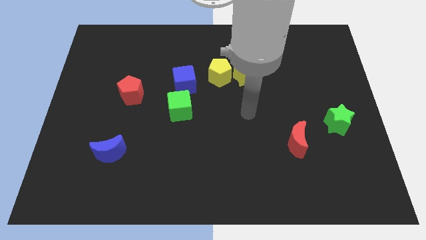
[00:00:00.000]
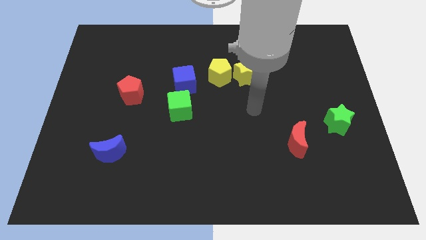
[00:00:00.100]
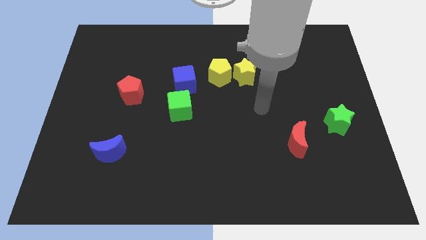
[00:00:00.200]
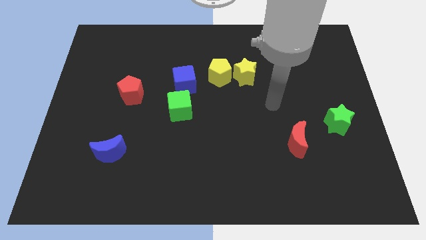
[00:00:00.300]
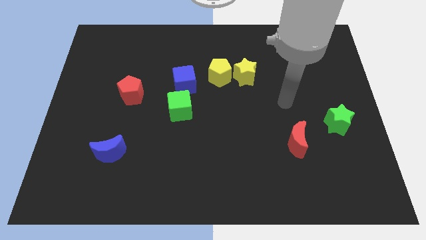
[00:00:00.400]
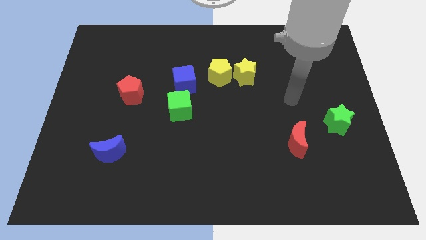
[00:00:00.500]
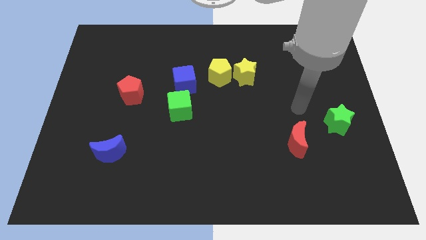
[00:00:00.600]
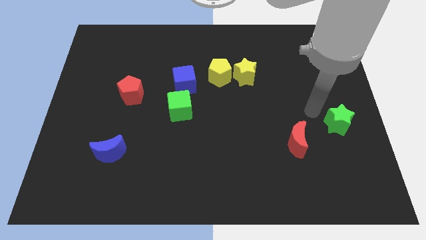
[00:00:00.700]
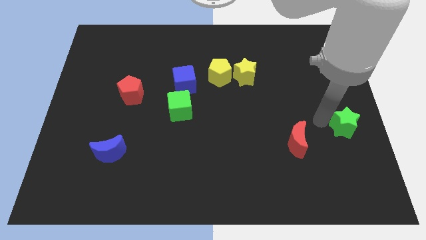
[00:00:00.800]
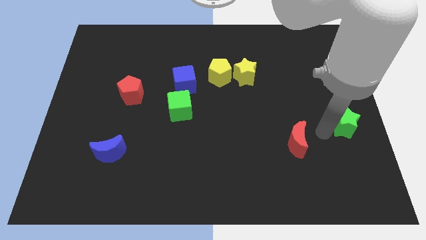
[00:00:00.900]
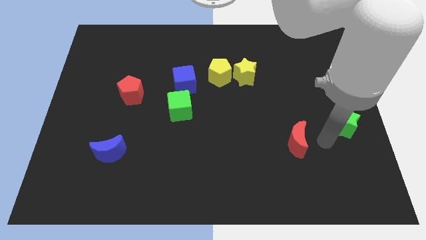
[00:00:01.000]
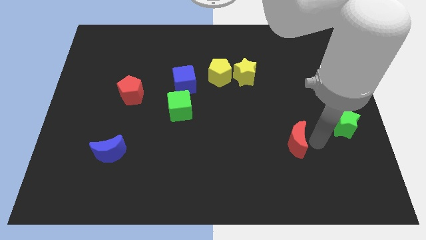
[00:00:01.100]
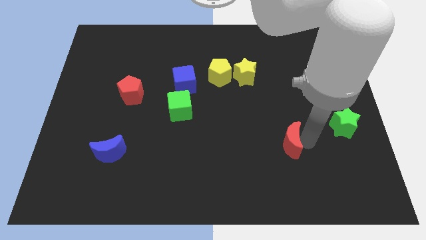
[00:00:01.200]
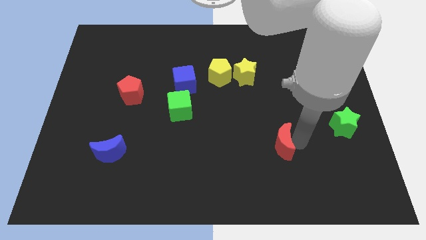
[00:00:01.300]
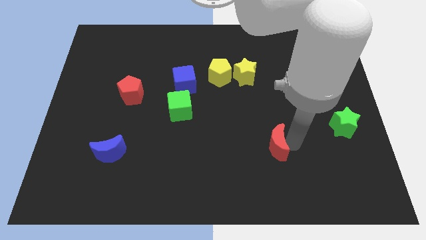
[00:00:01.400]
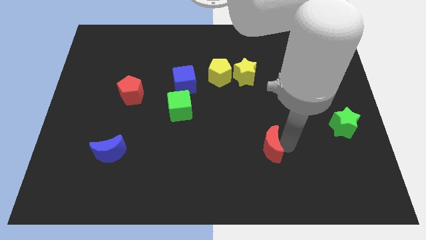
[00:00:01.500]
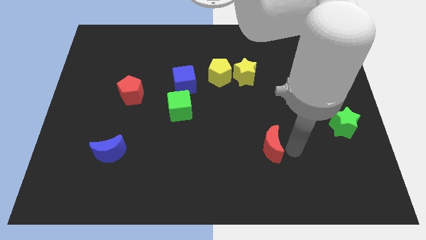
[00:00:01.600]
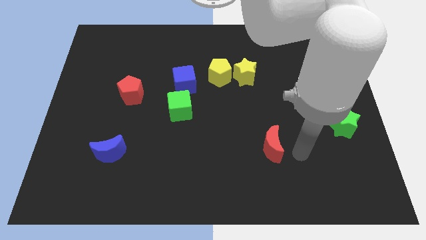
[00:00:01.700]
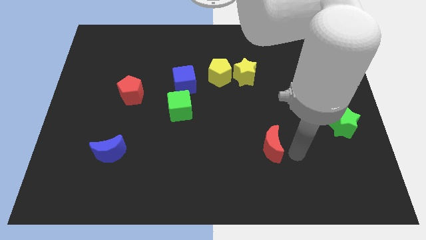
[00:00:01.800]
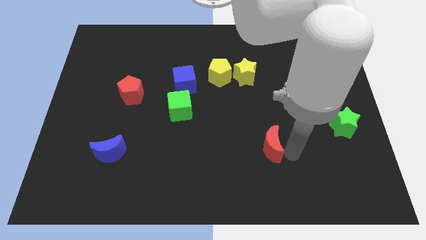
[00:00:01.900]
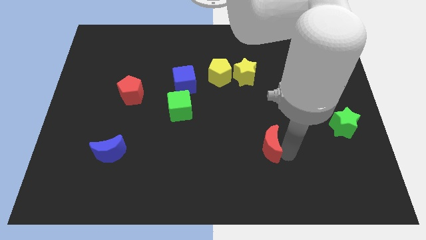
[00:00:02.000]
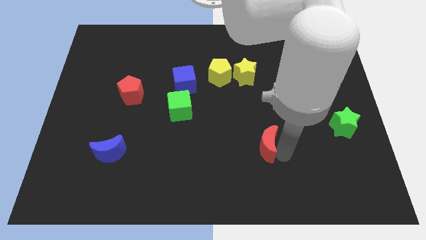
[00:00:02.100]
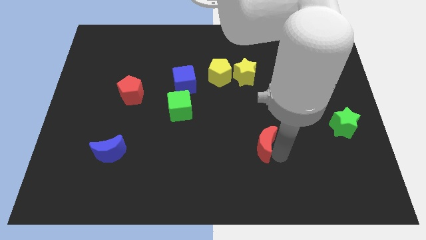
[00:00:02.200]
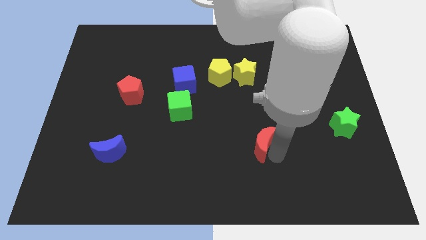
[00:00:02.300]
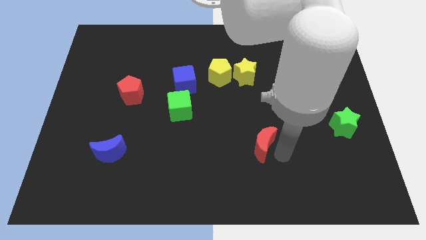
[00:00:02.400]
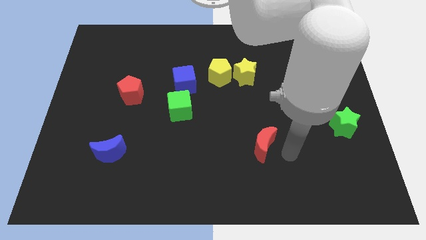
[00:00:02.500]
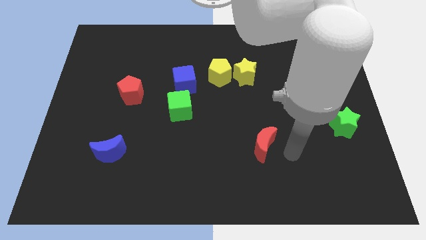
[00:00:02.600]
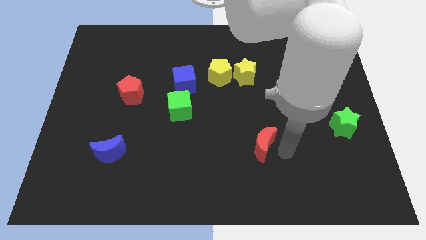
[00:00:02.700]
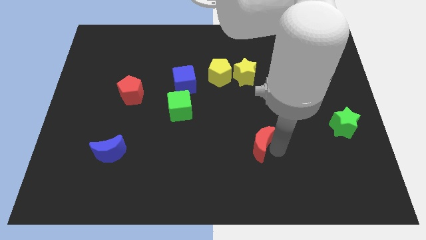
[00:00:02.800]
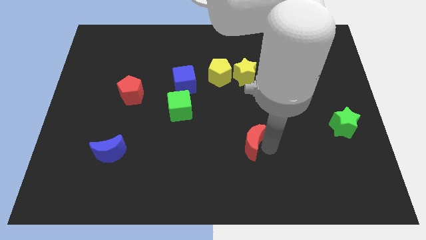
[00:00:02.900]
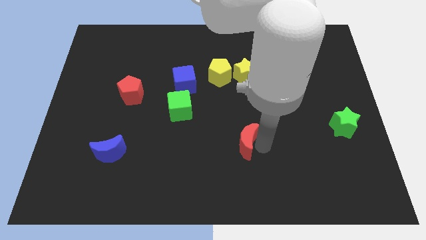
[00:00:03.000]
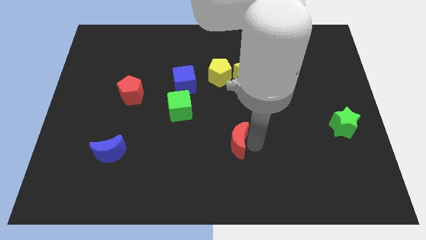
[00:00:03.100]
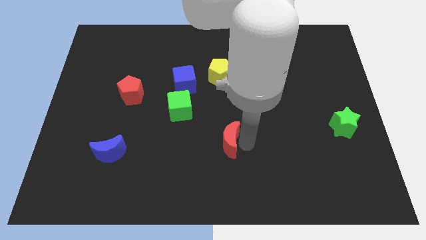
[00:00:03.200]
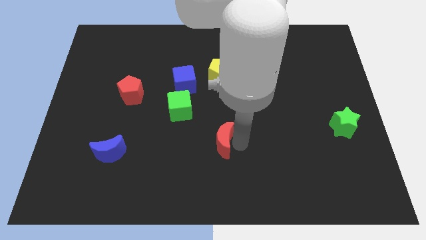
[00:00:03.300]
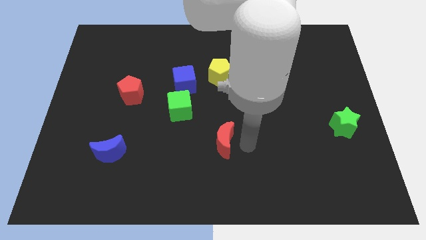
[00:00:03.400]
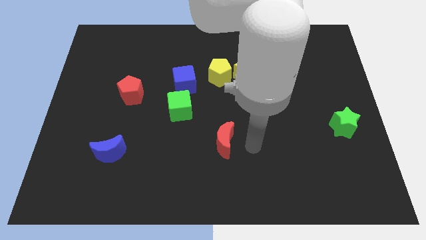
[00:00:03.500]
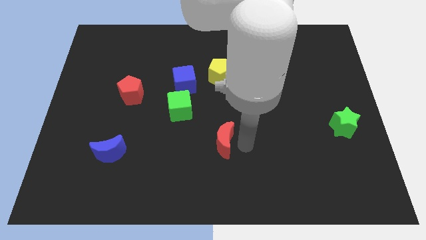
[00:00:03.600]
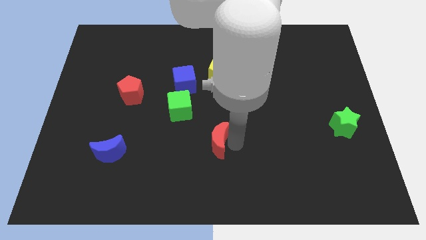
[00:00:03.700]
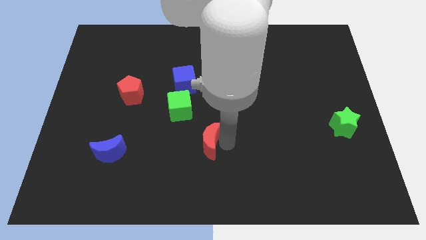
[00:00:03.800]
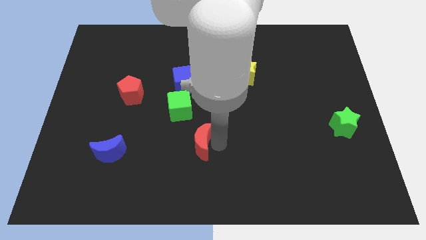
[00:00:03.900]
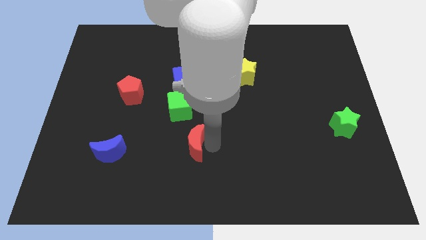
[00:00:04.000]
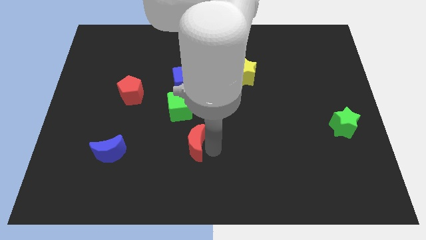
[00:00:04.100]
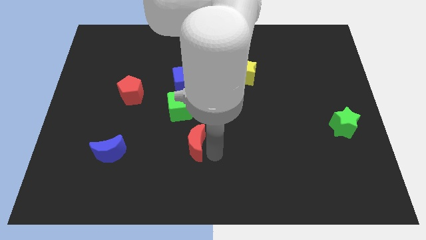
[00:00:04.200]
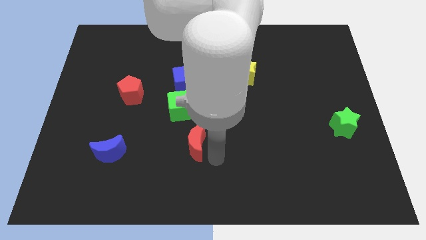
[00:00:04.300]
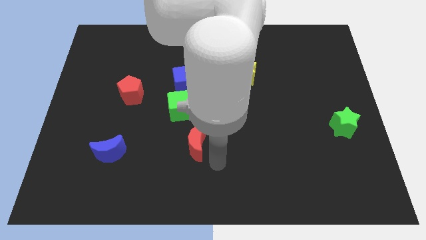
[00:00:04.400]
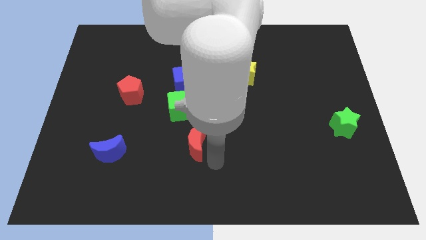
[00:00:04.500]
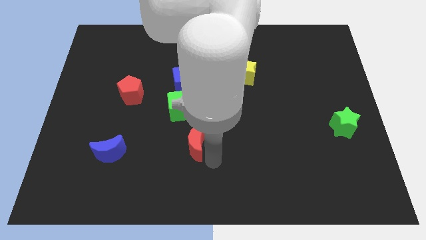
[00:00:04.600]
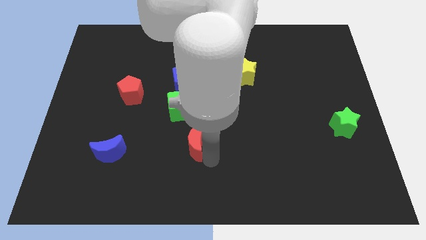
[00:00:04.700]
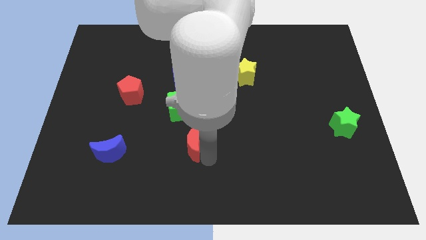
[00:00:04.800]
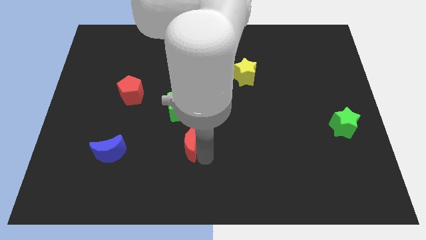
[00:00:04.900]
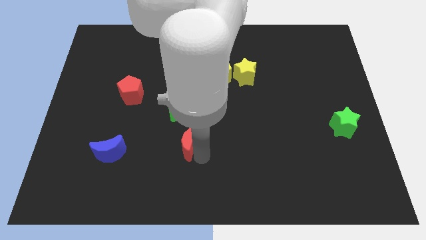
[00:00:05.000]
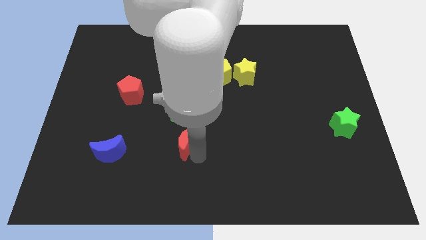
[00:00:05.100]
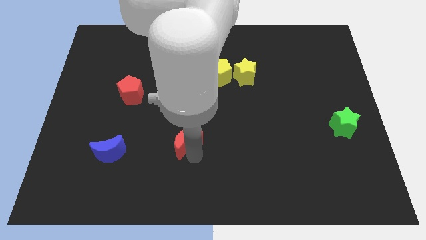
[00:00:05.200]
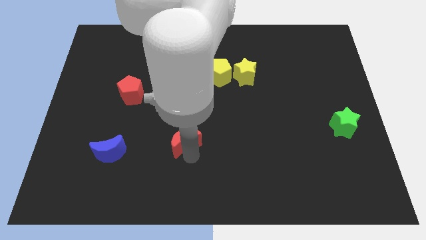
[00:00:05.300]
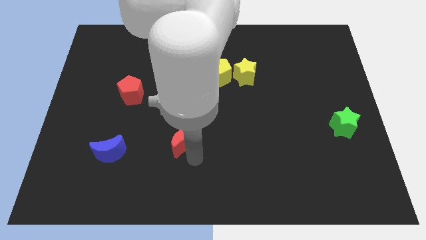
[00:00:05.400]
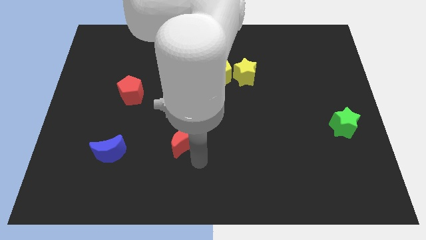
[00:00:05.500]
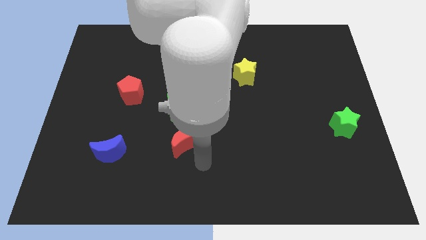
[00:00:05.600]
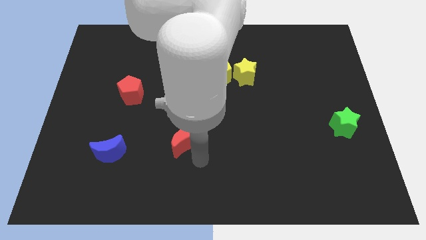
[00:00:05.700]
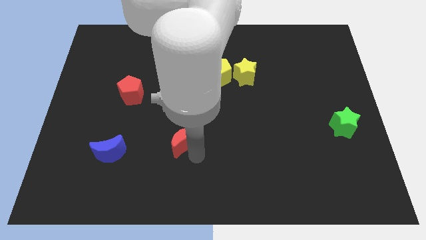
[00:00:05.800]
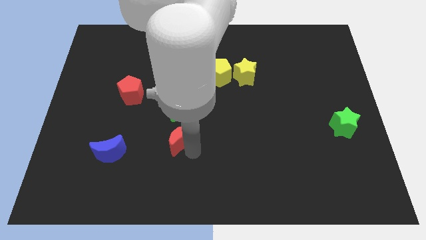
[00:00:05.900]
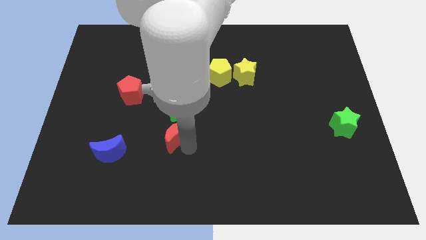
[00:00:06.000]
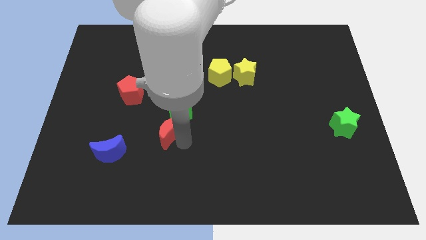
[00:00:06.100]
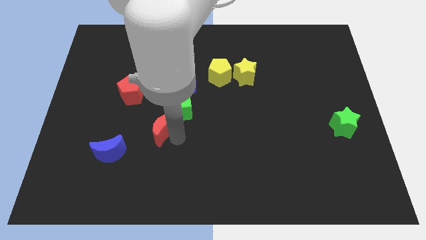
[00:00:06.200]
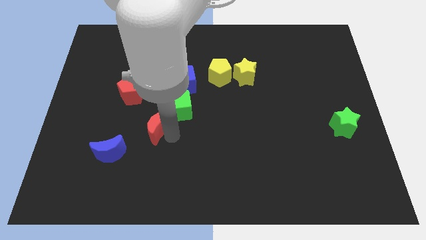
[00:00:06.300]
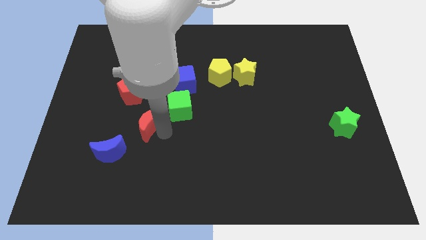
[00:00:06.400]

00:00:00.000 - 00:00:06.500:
push the red moon to the left of the green cube

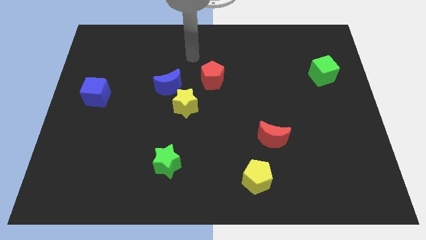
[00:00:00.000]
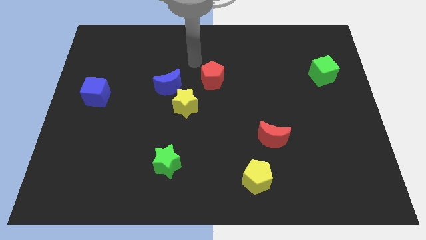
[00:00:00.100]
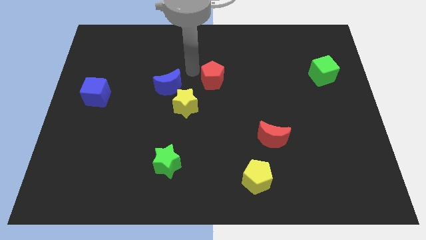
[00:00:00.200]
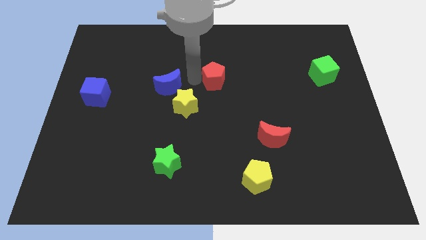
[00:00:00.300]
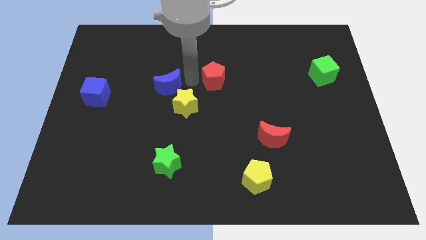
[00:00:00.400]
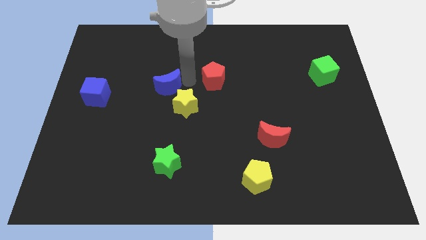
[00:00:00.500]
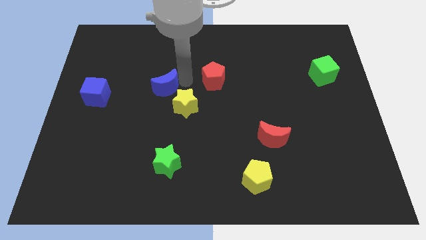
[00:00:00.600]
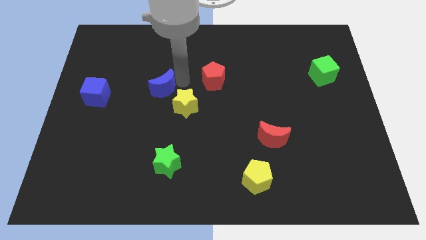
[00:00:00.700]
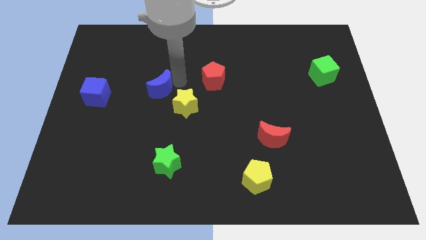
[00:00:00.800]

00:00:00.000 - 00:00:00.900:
put the blue moon to the right of the blue cube
